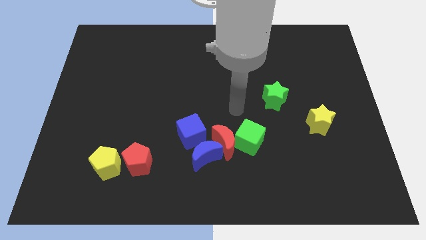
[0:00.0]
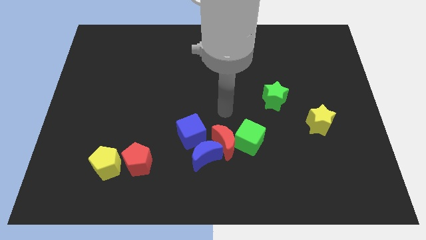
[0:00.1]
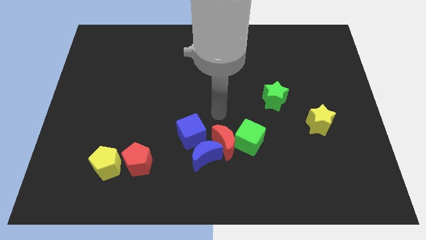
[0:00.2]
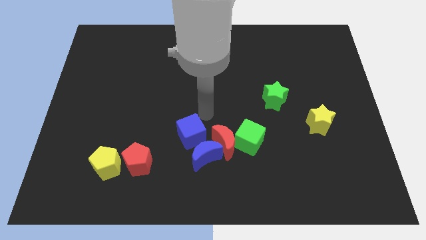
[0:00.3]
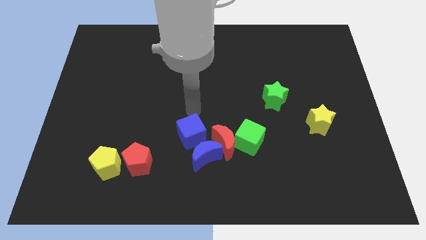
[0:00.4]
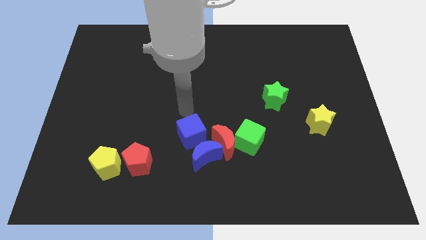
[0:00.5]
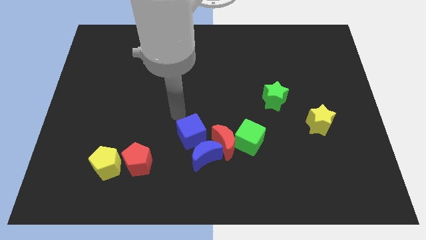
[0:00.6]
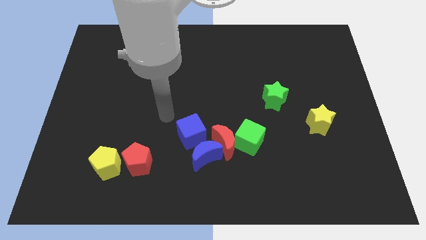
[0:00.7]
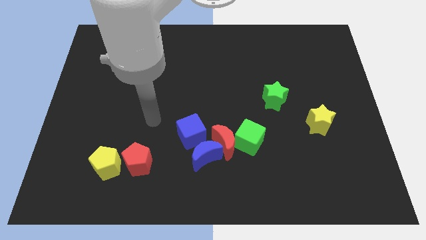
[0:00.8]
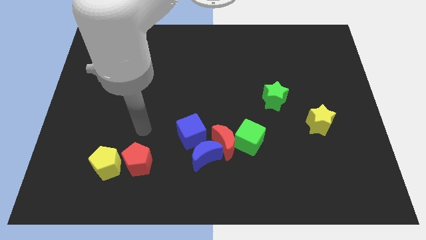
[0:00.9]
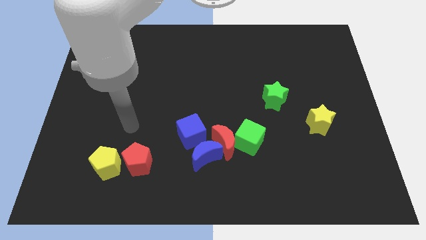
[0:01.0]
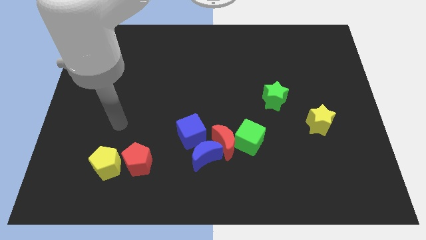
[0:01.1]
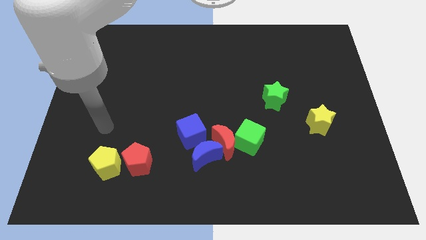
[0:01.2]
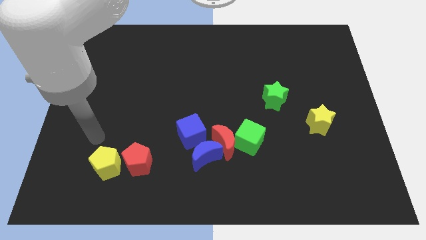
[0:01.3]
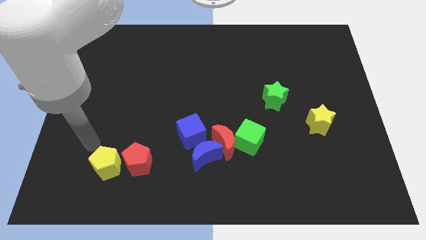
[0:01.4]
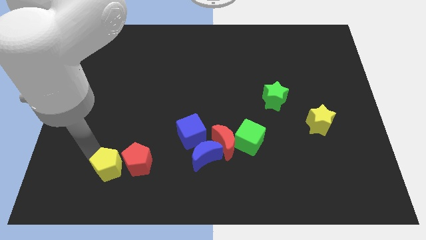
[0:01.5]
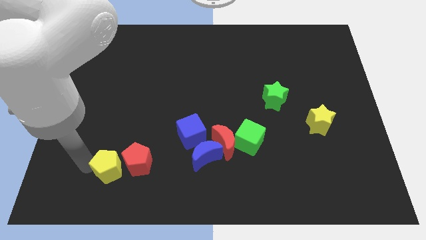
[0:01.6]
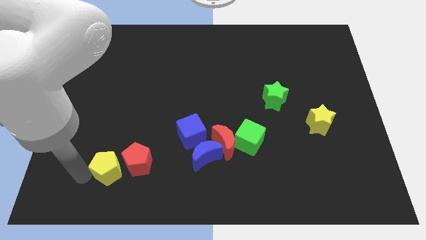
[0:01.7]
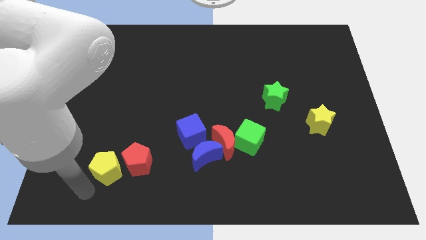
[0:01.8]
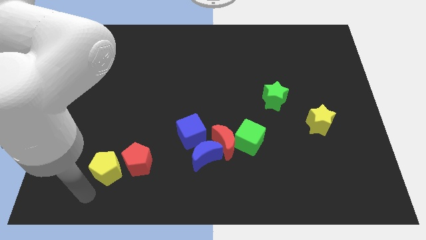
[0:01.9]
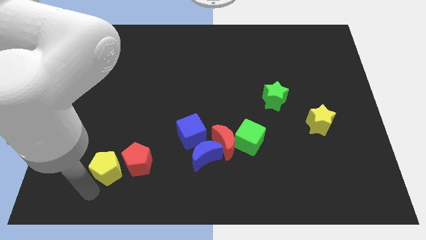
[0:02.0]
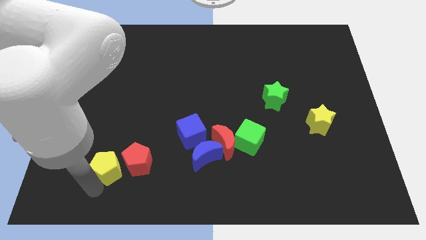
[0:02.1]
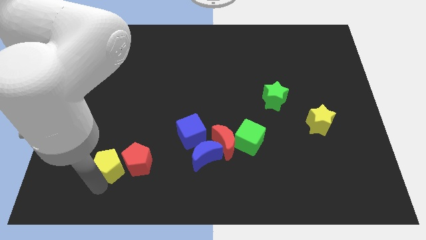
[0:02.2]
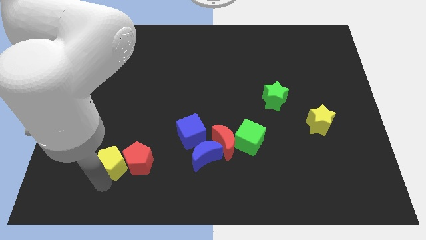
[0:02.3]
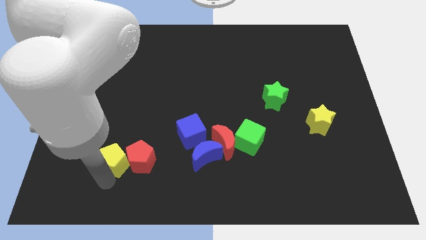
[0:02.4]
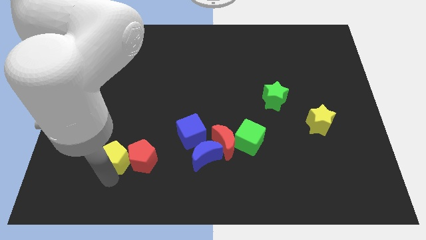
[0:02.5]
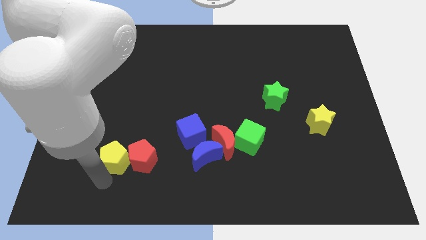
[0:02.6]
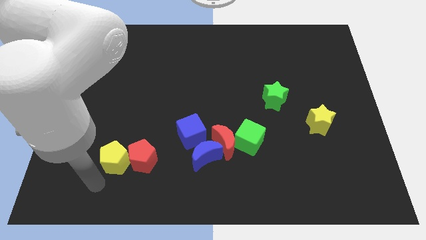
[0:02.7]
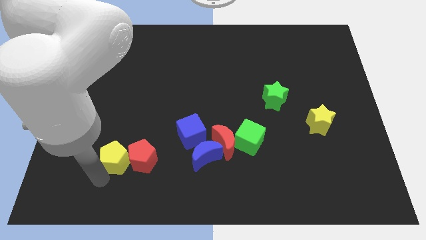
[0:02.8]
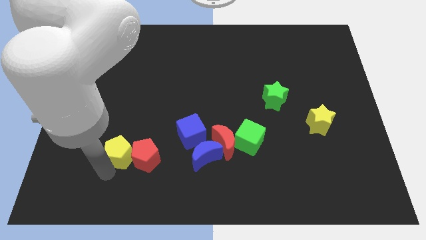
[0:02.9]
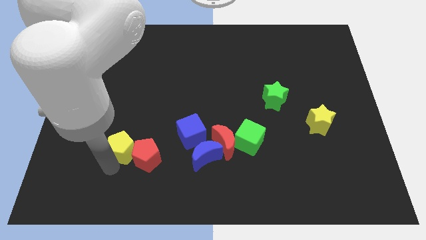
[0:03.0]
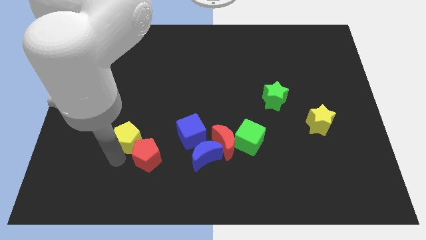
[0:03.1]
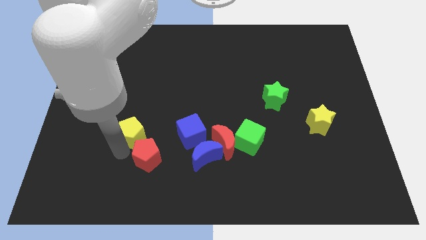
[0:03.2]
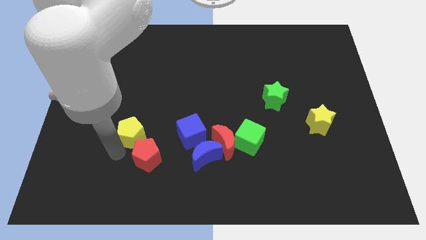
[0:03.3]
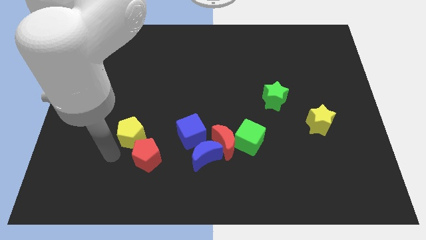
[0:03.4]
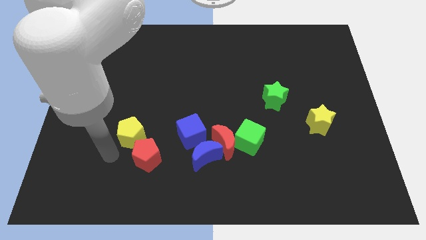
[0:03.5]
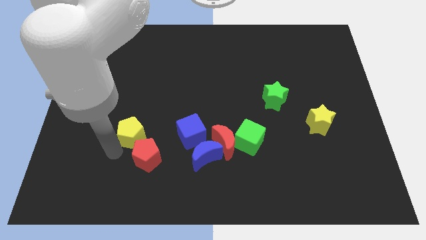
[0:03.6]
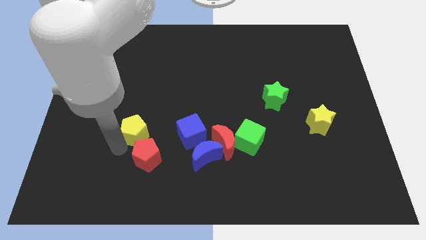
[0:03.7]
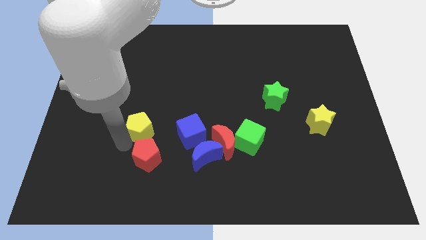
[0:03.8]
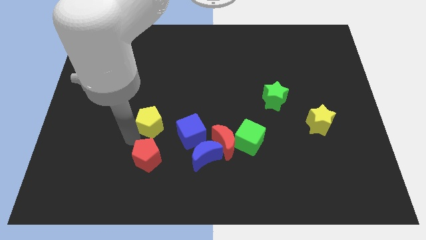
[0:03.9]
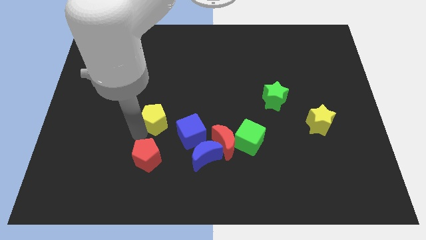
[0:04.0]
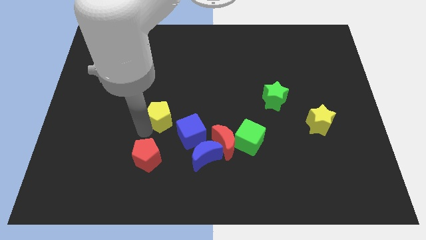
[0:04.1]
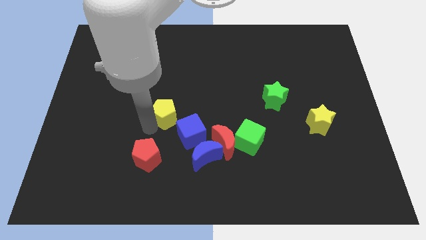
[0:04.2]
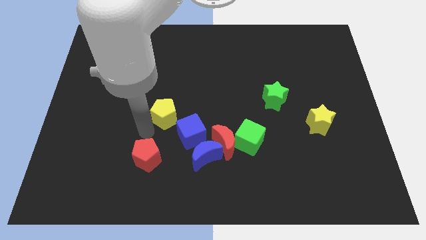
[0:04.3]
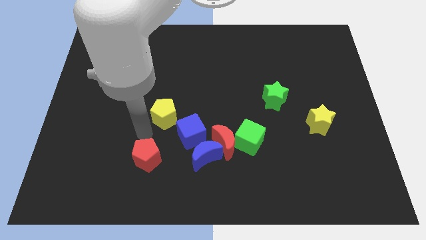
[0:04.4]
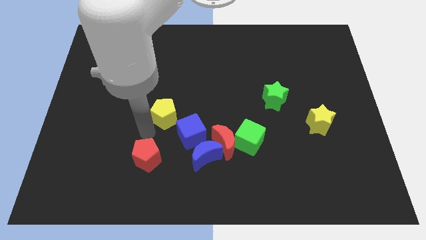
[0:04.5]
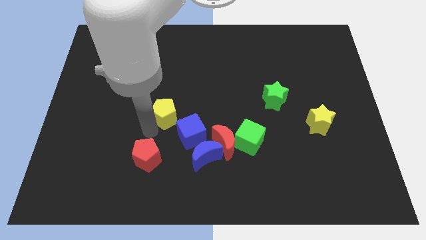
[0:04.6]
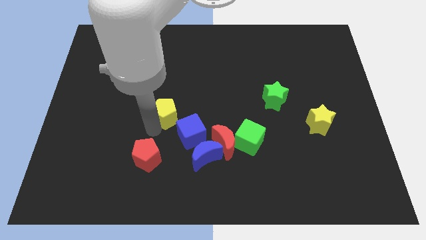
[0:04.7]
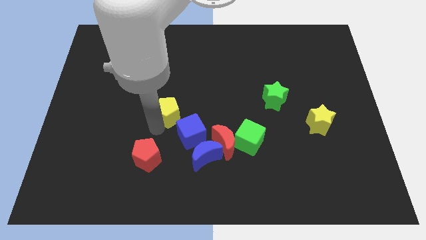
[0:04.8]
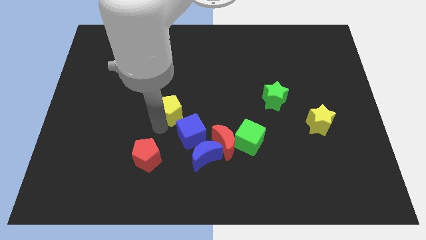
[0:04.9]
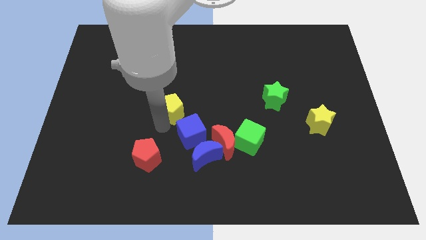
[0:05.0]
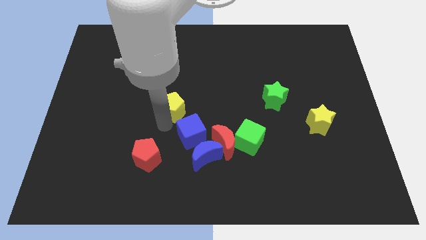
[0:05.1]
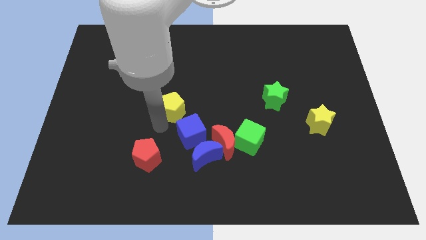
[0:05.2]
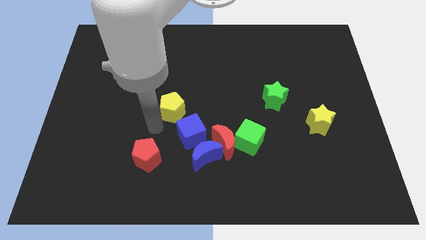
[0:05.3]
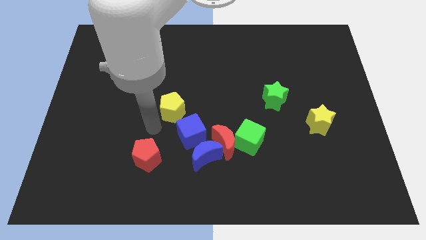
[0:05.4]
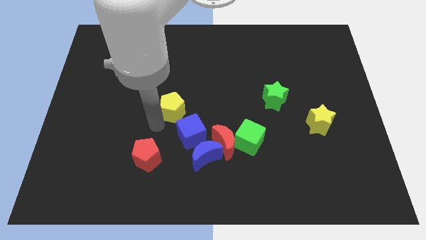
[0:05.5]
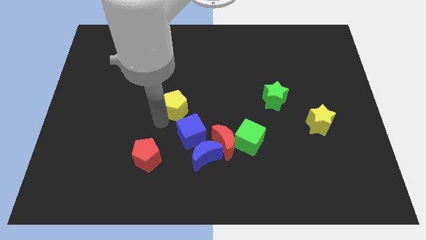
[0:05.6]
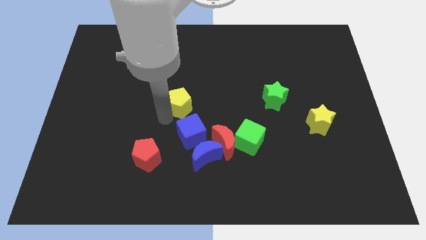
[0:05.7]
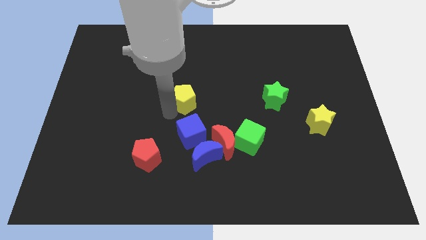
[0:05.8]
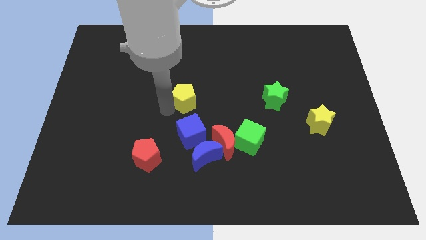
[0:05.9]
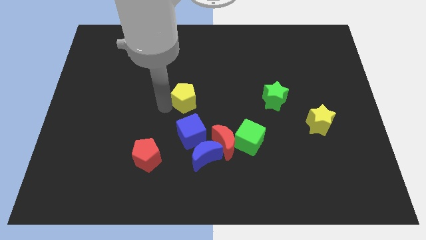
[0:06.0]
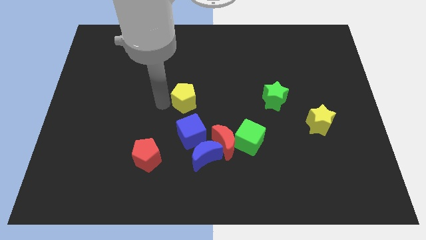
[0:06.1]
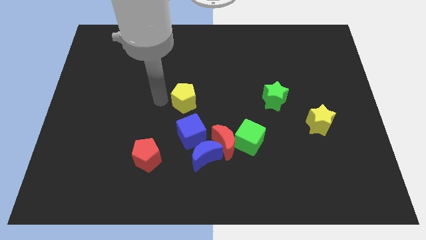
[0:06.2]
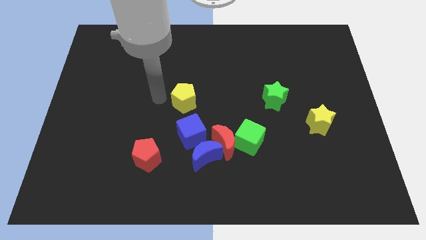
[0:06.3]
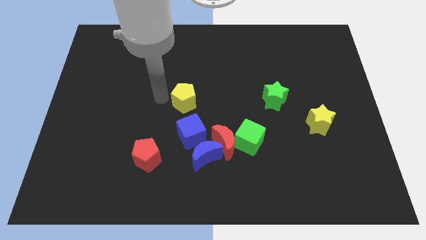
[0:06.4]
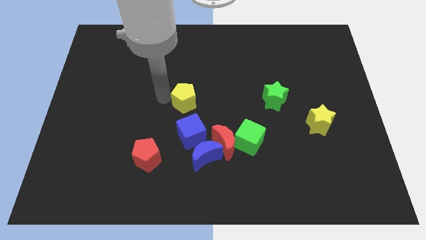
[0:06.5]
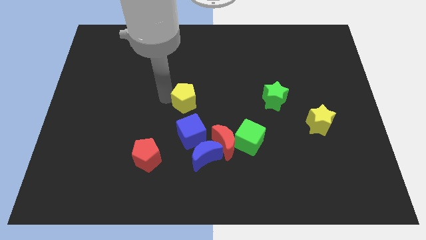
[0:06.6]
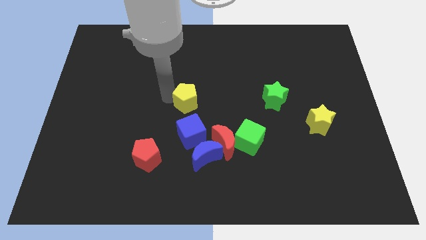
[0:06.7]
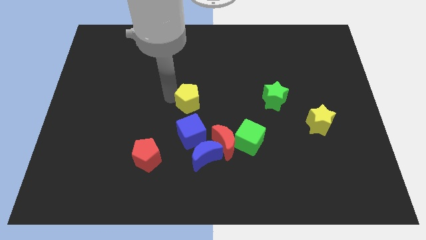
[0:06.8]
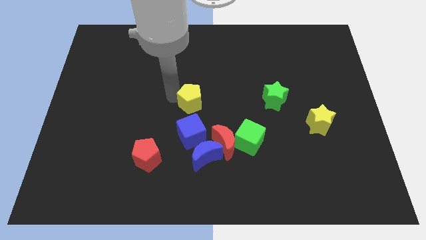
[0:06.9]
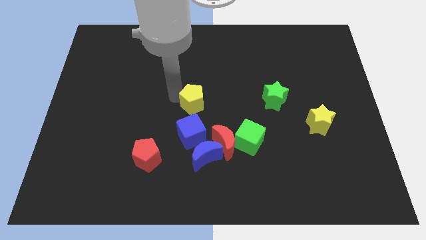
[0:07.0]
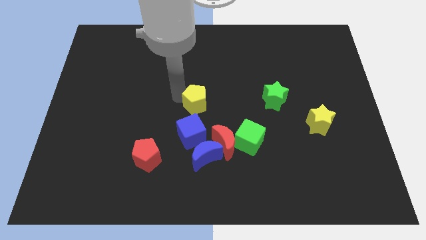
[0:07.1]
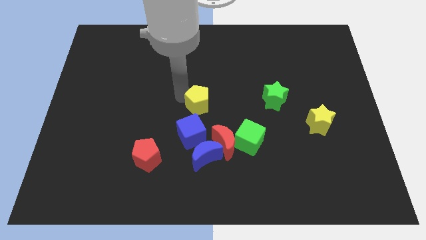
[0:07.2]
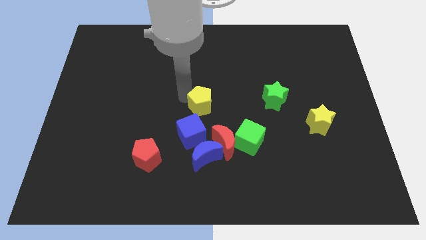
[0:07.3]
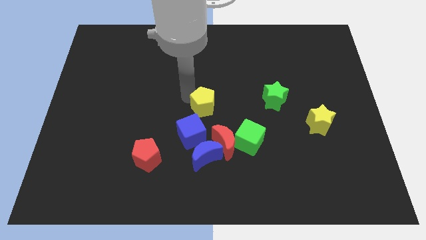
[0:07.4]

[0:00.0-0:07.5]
move the yellow pentagon to the top side of the red moon
